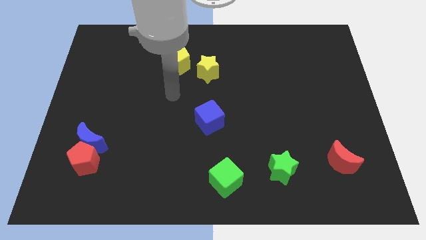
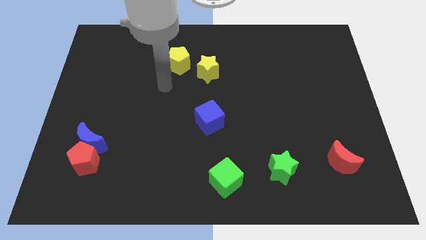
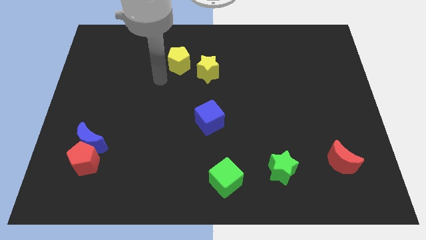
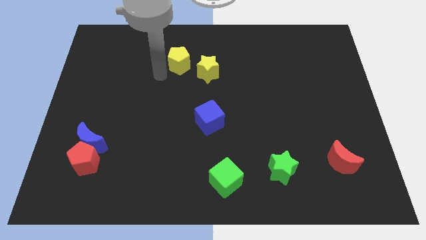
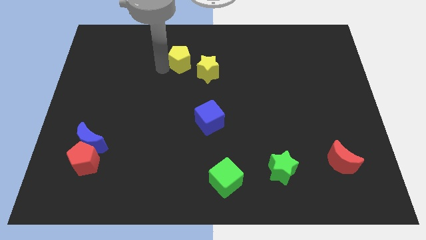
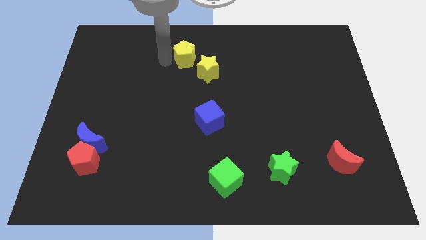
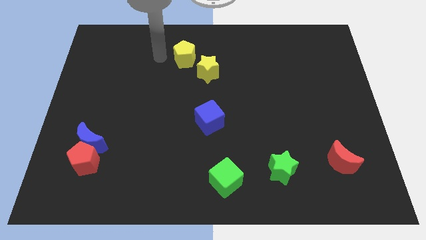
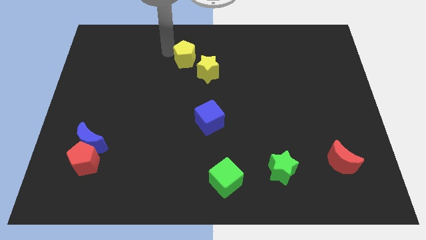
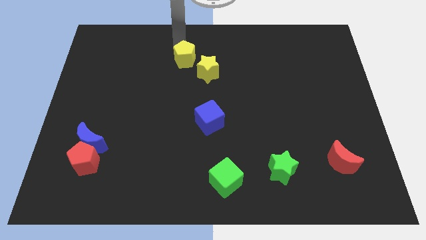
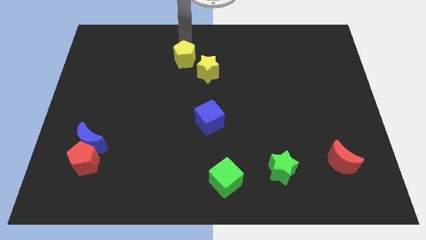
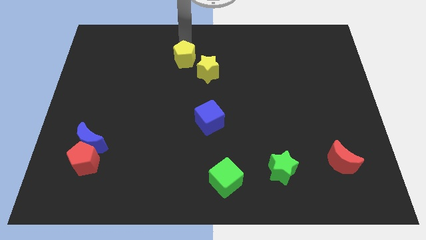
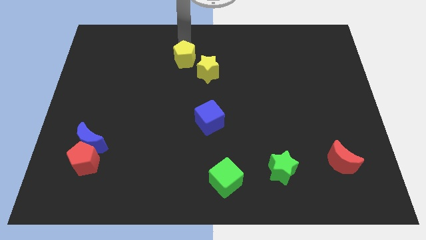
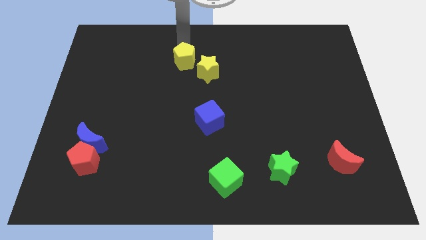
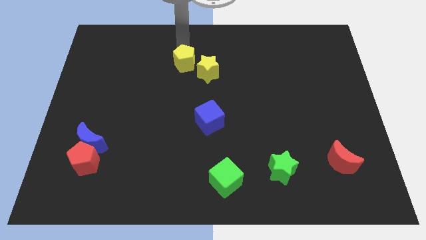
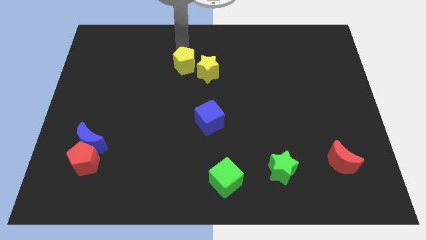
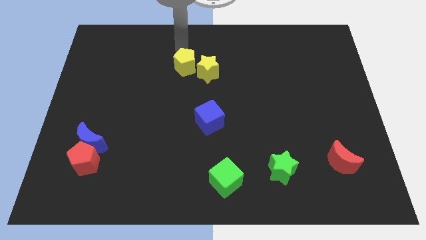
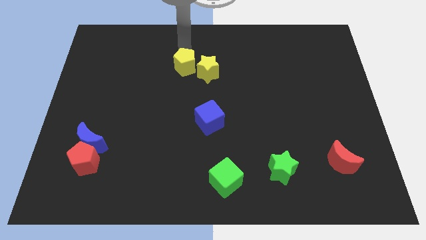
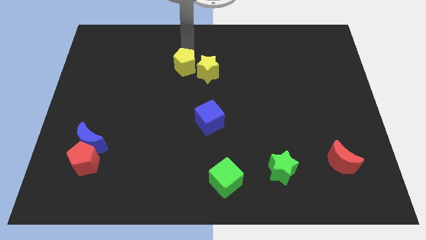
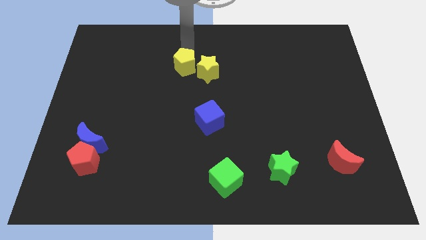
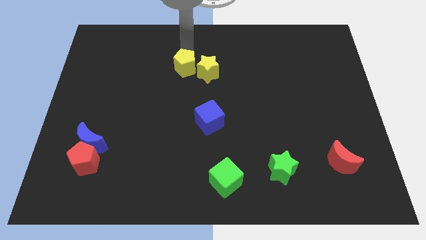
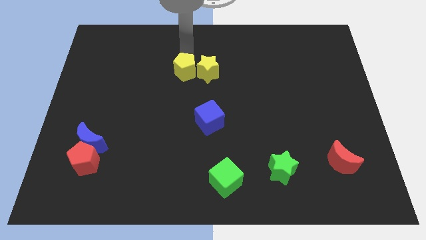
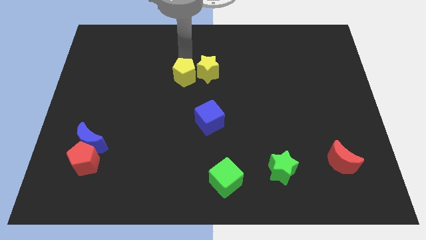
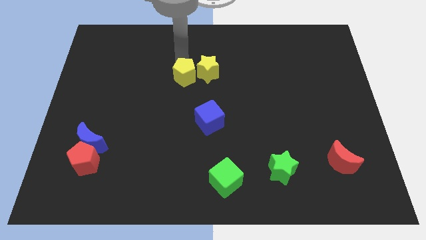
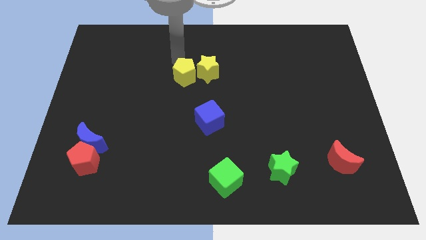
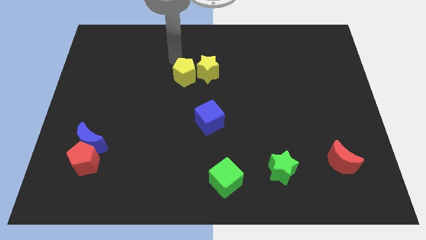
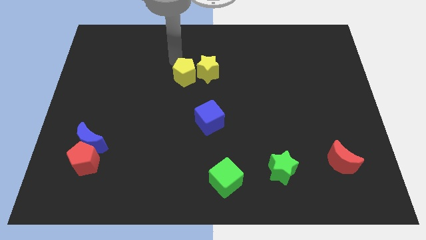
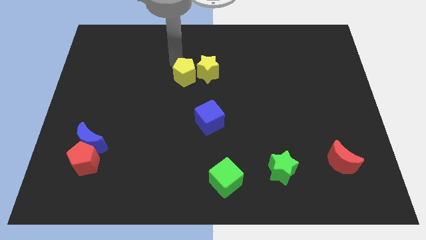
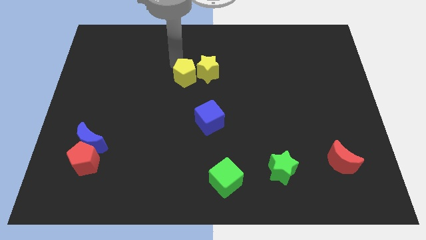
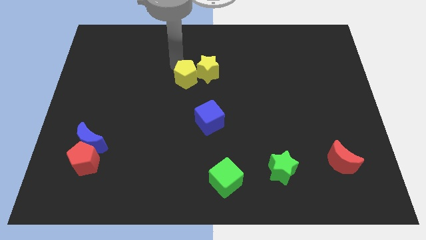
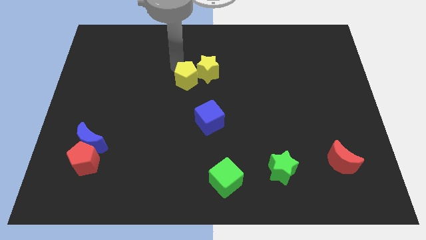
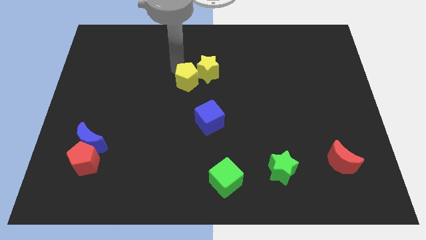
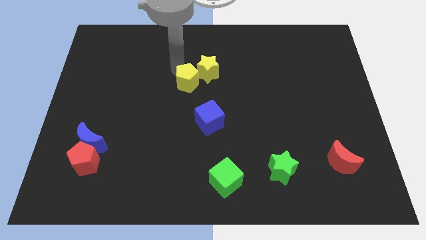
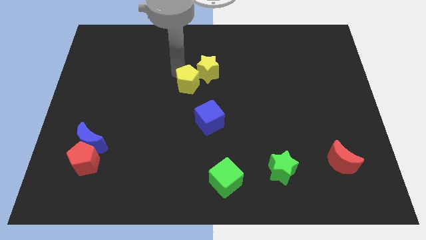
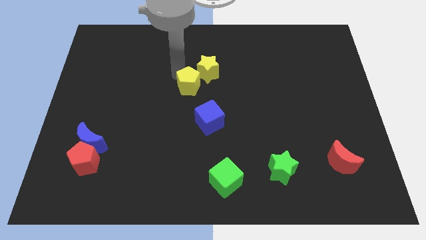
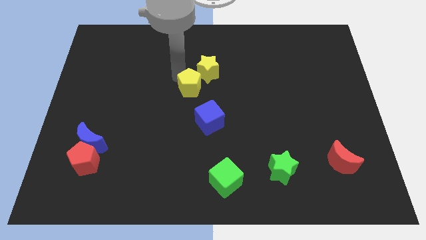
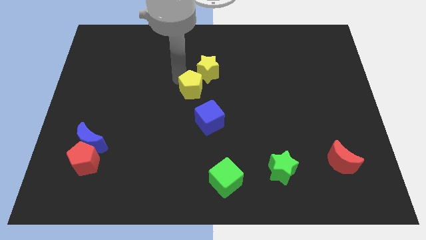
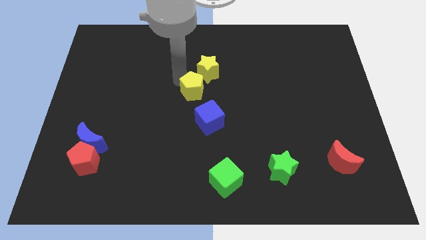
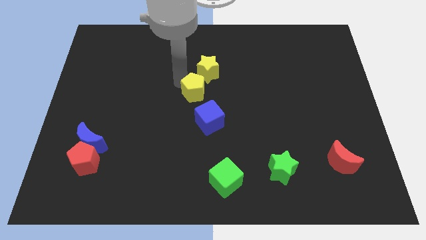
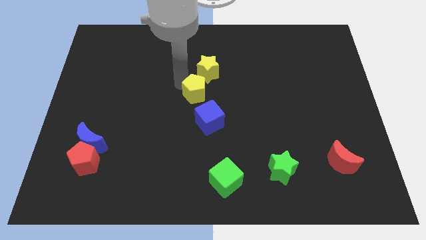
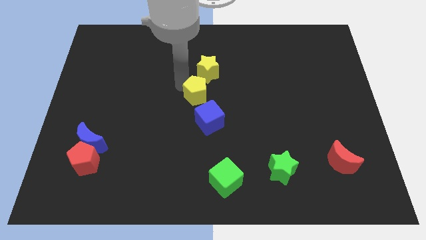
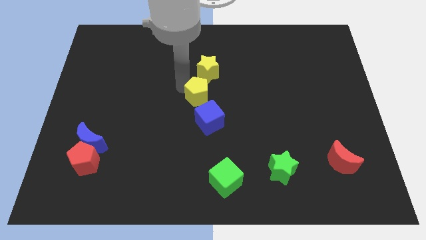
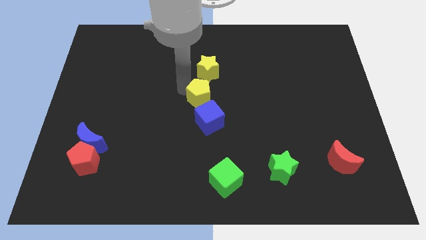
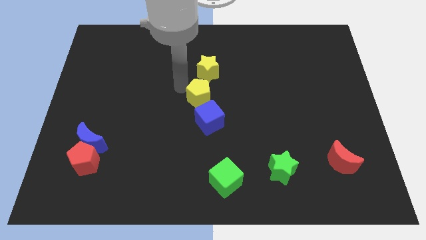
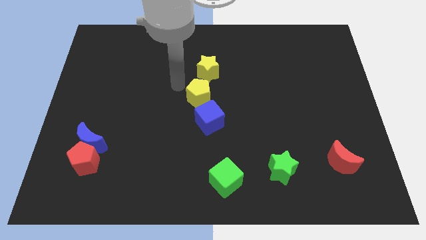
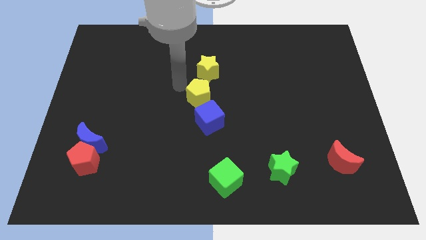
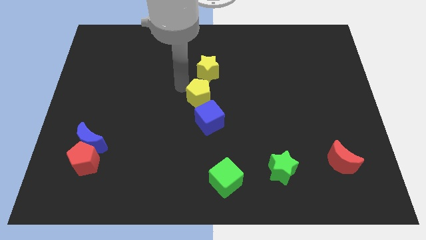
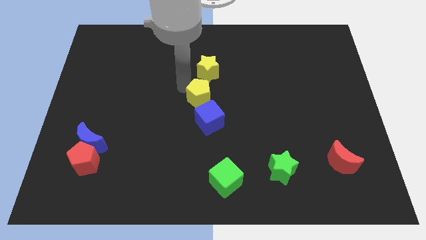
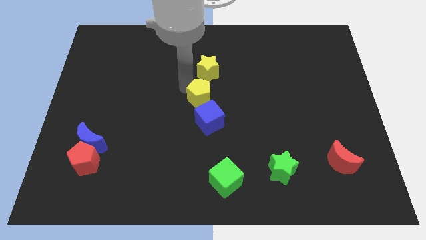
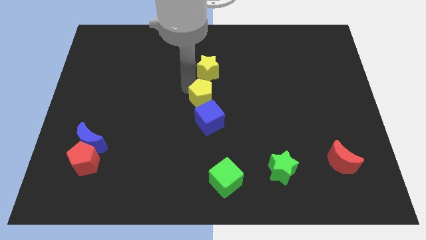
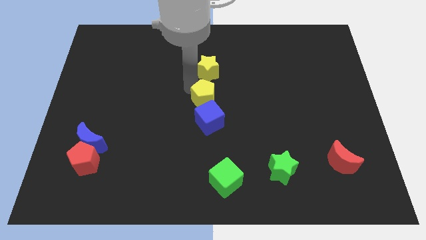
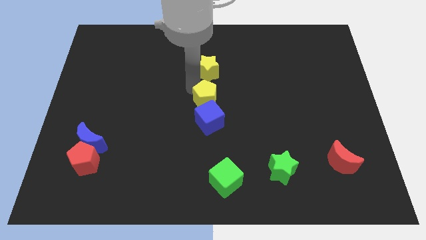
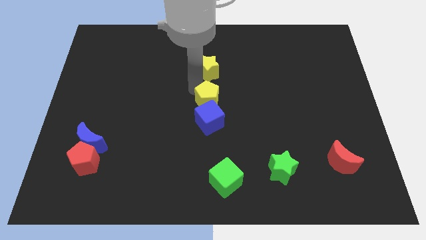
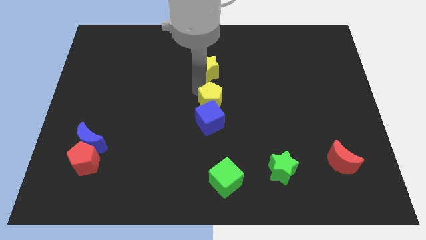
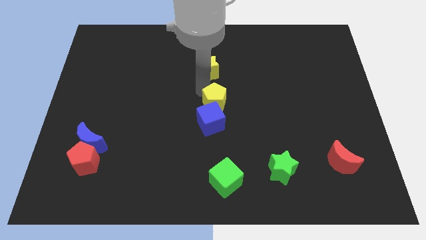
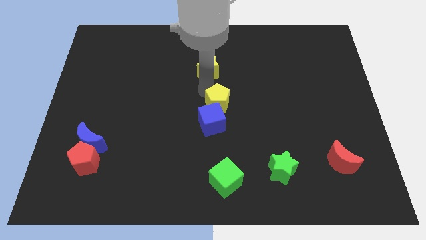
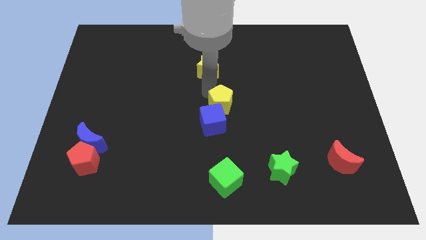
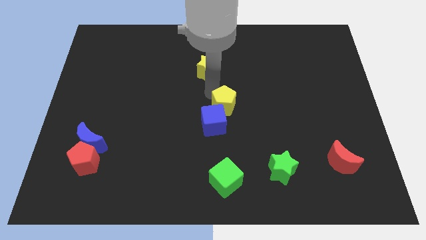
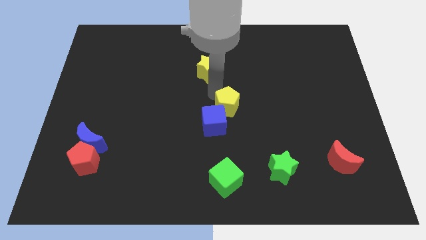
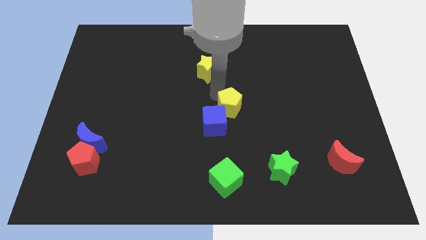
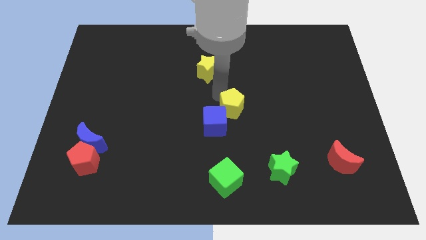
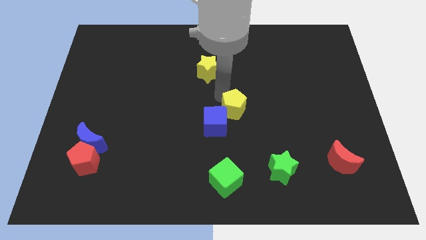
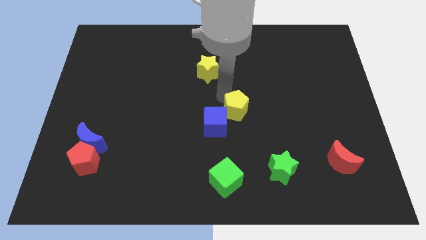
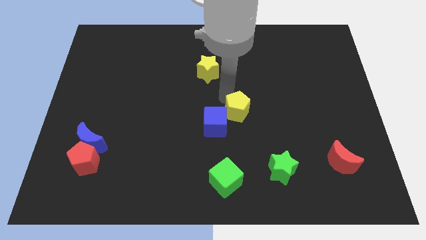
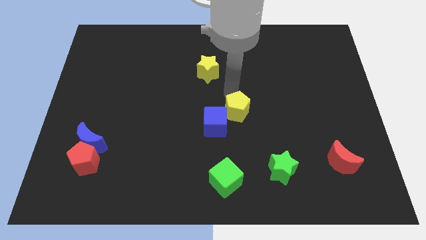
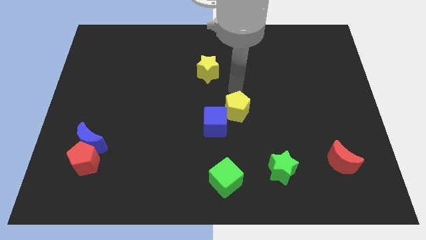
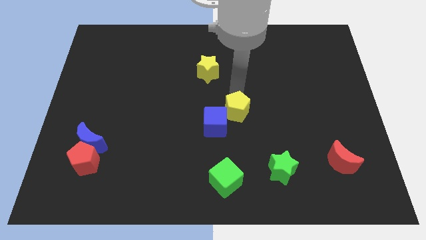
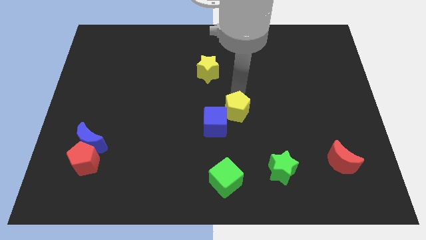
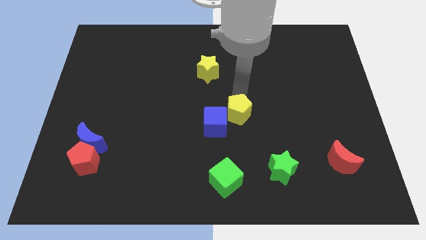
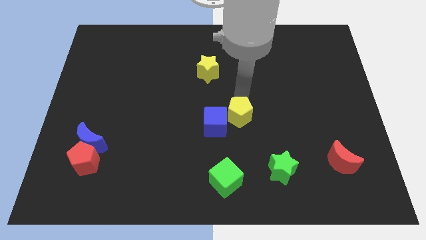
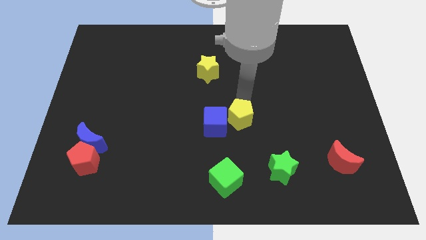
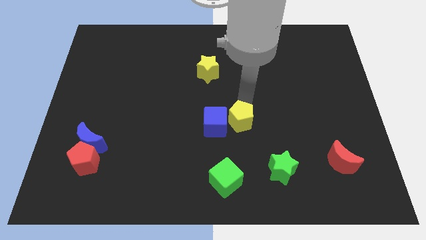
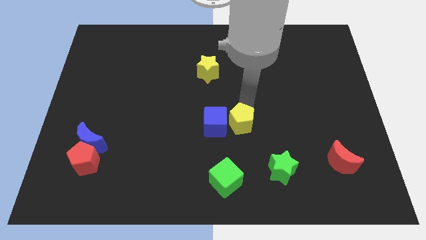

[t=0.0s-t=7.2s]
put the yellow pentagon to the bottom right side of the blue cube
